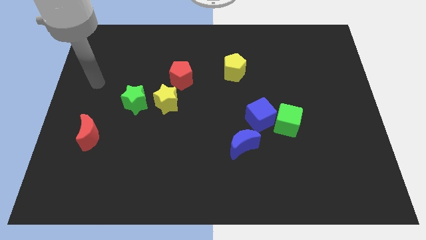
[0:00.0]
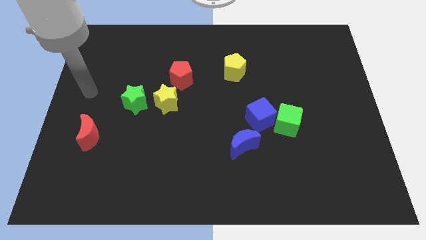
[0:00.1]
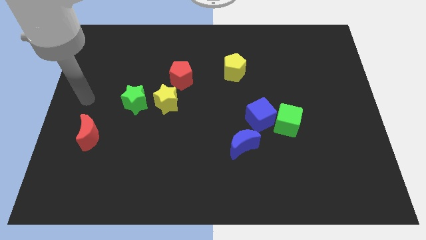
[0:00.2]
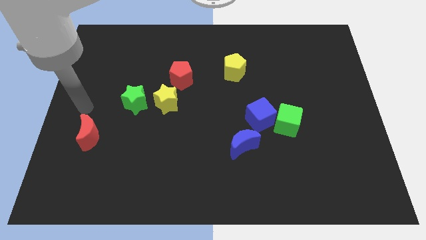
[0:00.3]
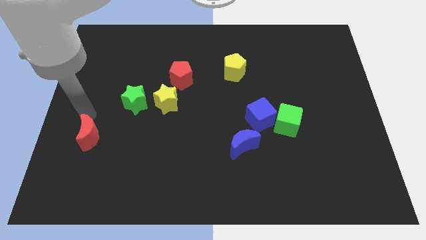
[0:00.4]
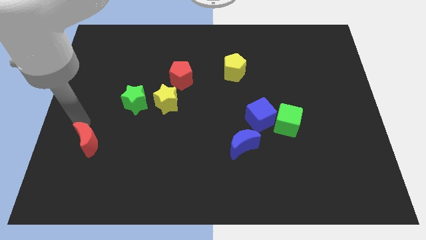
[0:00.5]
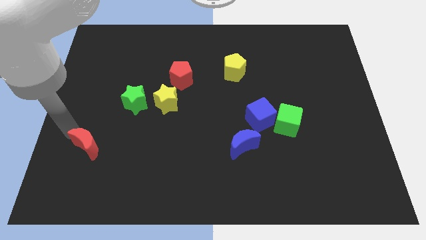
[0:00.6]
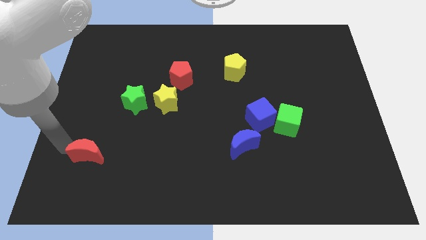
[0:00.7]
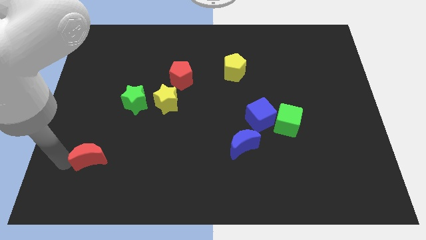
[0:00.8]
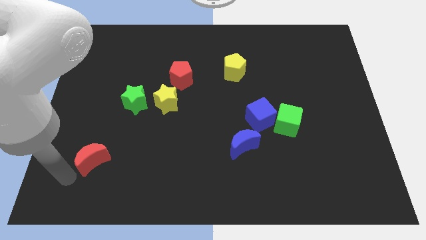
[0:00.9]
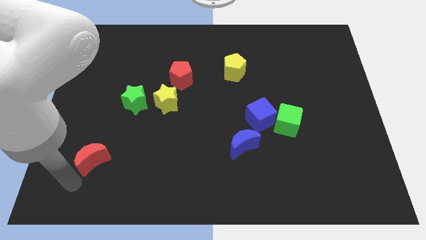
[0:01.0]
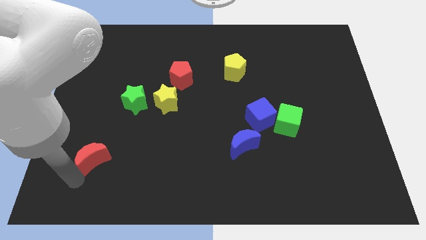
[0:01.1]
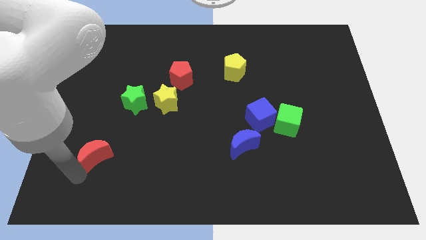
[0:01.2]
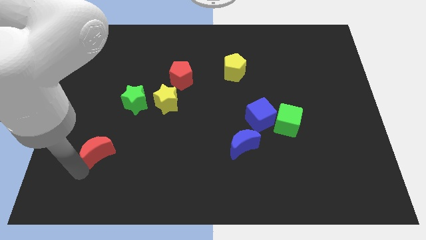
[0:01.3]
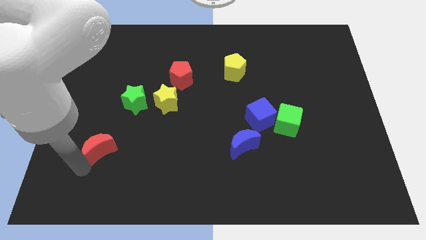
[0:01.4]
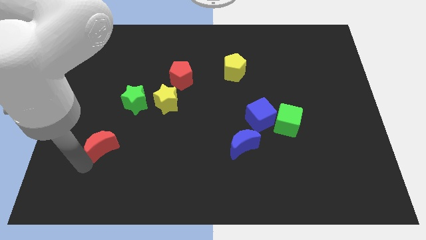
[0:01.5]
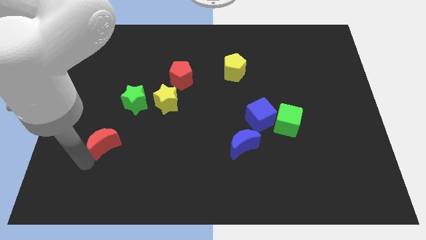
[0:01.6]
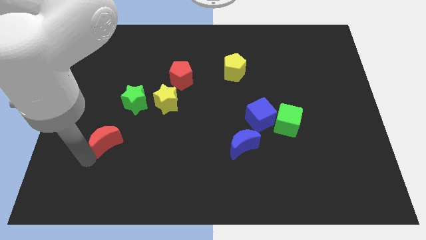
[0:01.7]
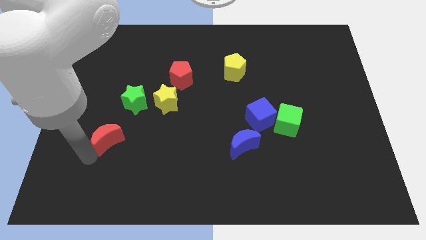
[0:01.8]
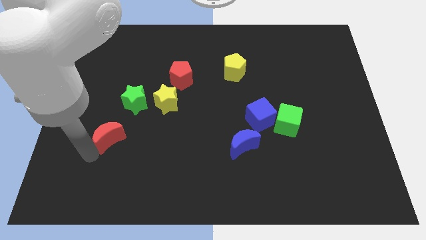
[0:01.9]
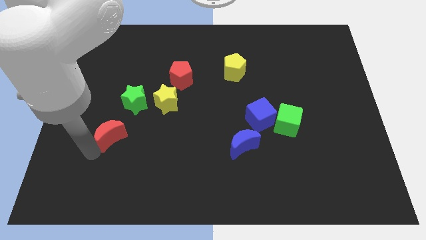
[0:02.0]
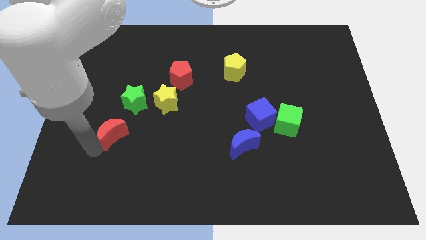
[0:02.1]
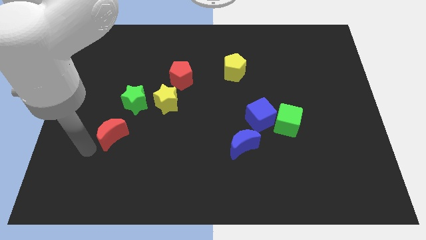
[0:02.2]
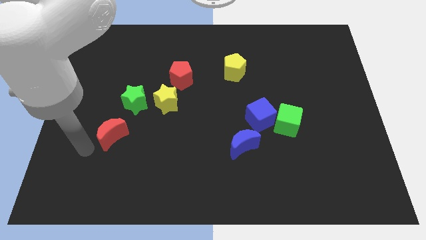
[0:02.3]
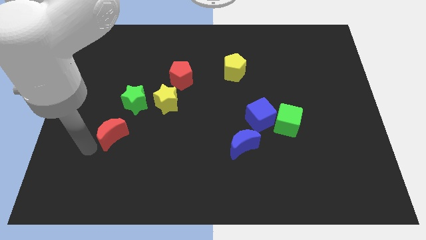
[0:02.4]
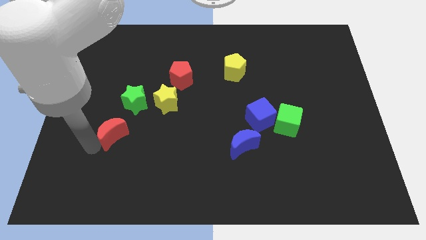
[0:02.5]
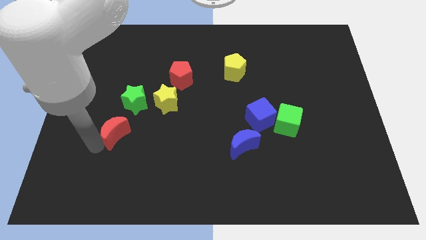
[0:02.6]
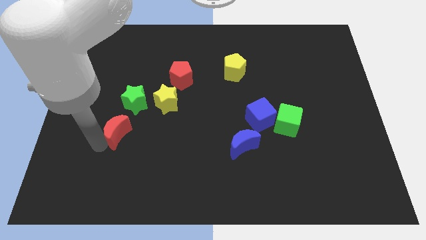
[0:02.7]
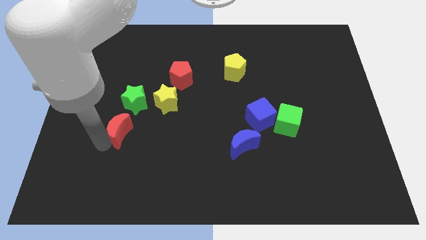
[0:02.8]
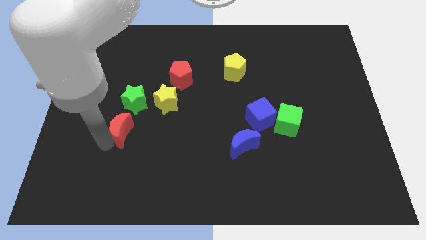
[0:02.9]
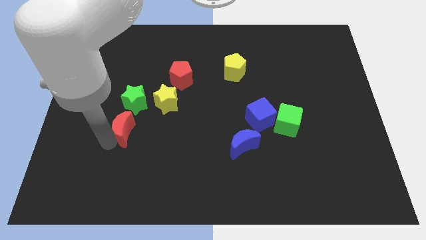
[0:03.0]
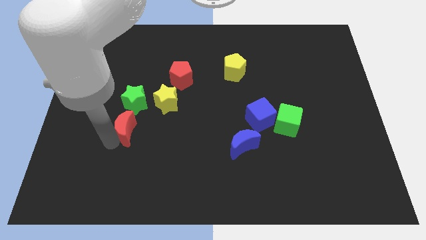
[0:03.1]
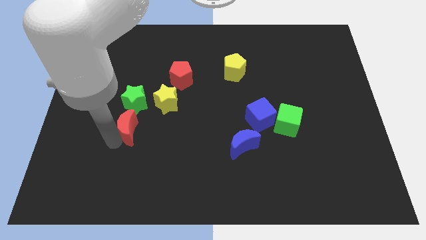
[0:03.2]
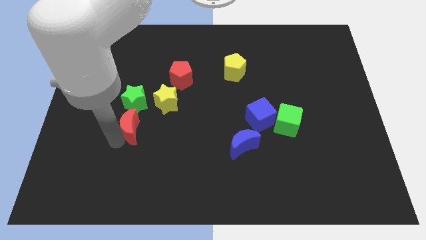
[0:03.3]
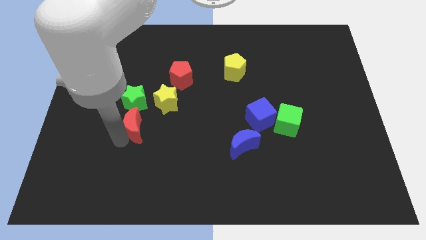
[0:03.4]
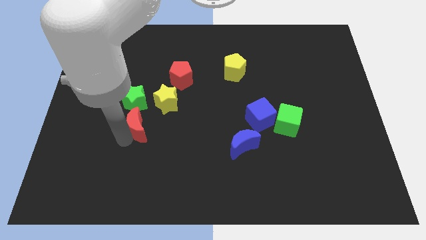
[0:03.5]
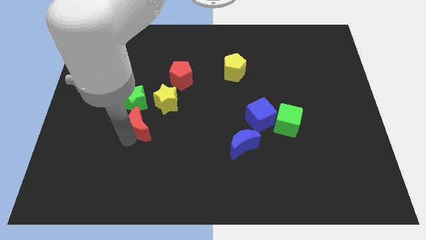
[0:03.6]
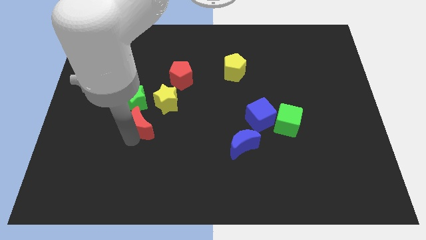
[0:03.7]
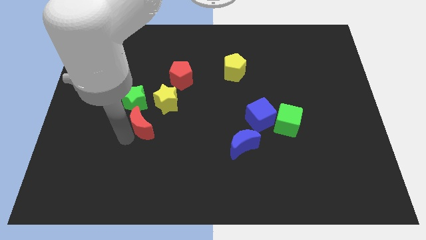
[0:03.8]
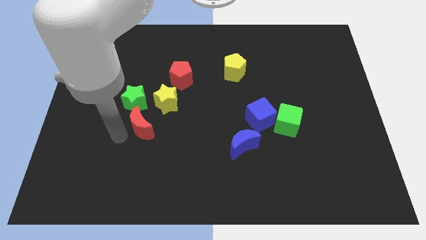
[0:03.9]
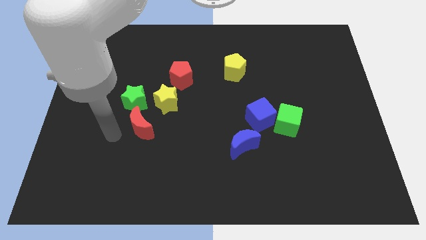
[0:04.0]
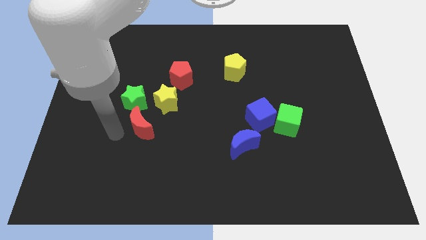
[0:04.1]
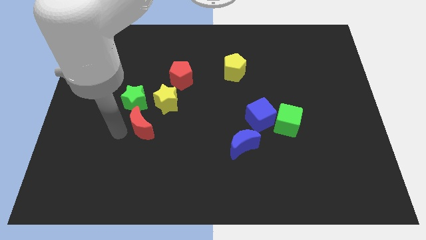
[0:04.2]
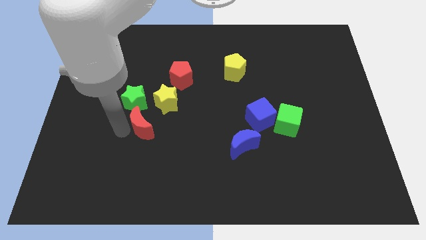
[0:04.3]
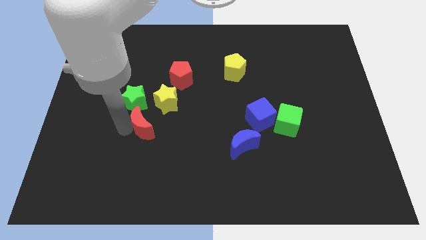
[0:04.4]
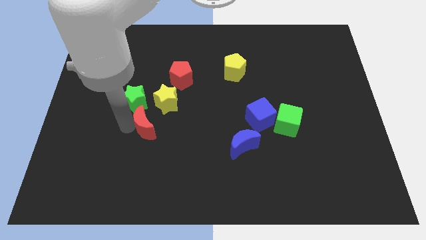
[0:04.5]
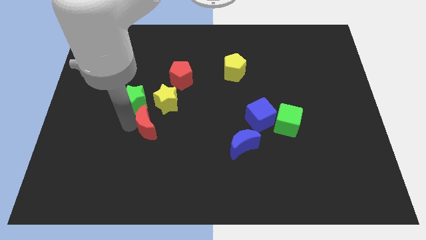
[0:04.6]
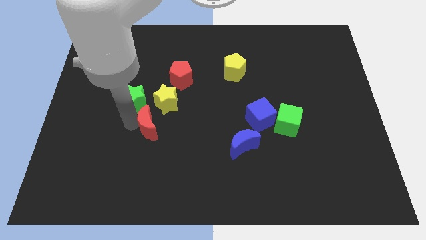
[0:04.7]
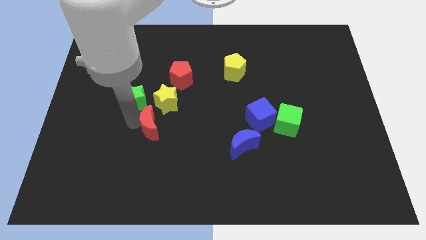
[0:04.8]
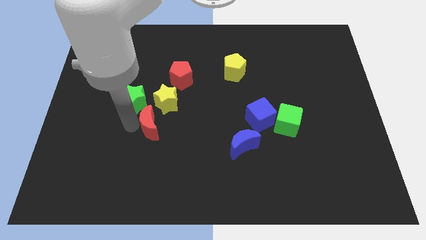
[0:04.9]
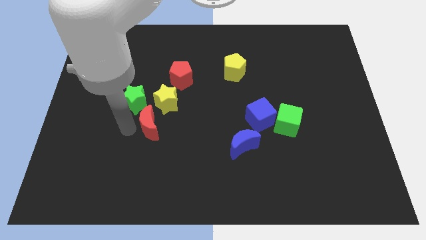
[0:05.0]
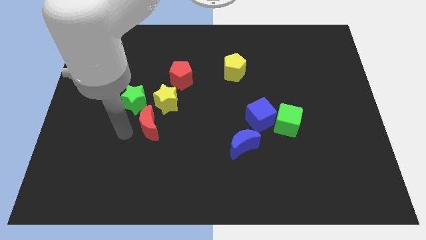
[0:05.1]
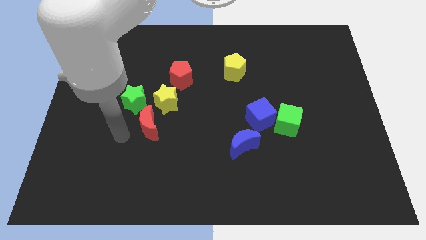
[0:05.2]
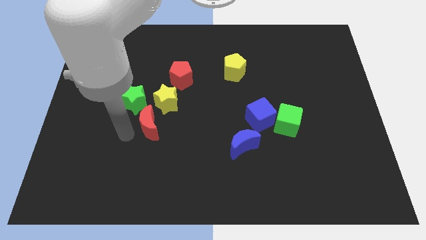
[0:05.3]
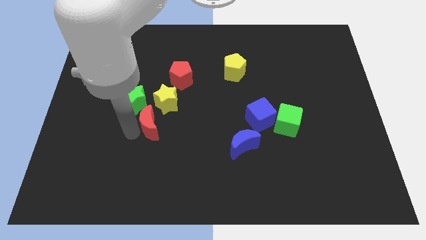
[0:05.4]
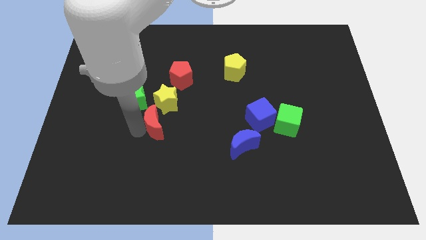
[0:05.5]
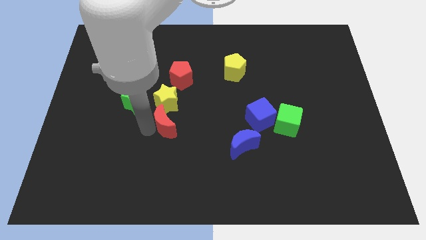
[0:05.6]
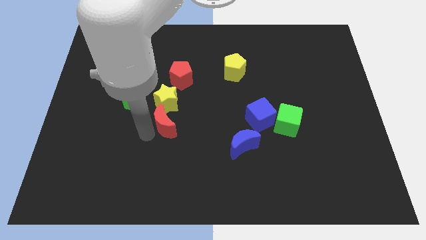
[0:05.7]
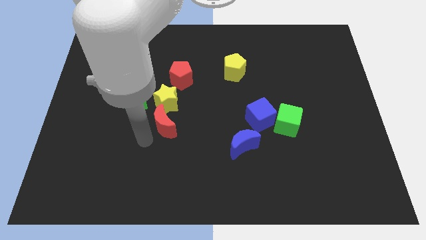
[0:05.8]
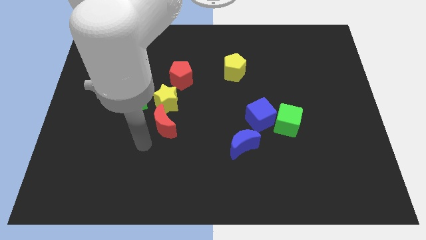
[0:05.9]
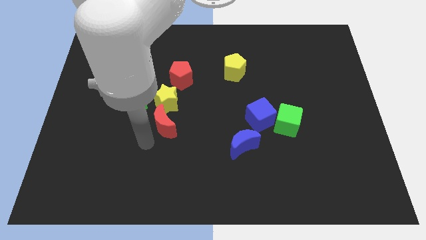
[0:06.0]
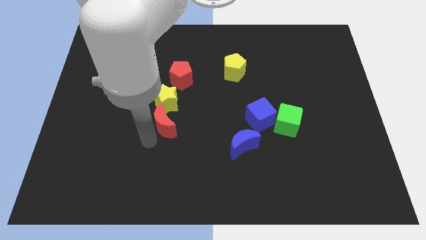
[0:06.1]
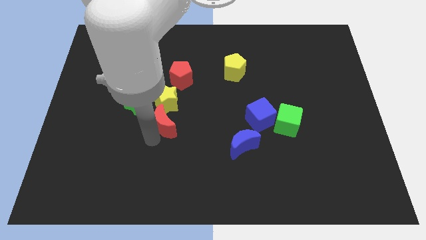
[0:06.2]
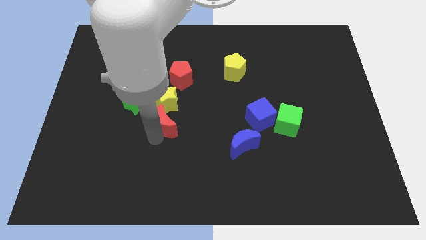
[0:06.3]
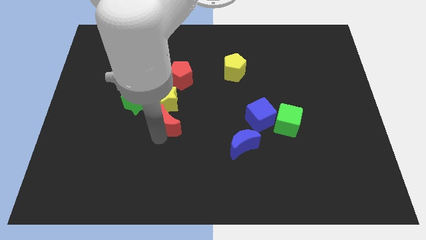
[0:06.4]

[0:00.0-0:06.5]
move the red moon to the center
